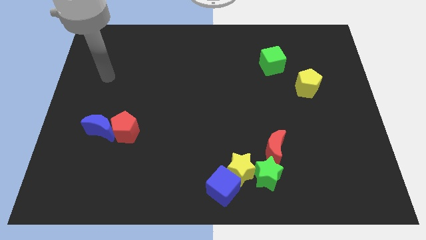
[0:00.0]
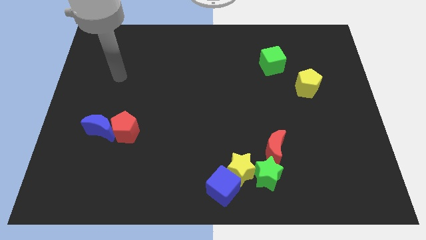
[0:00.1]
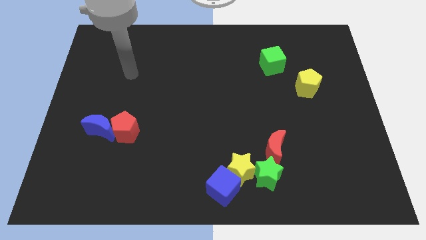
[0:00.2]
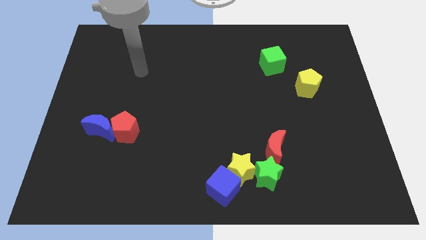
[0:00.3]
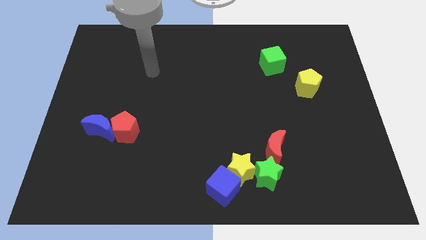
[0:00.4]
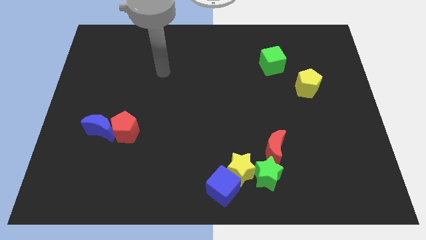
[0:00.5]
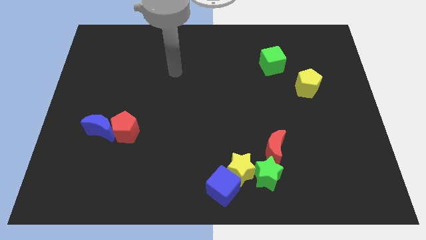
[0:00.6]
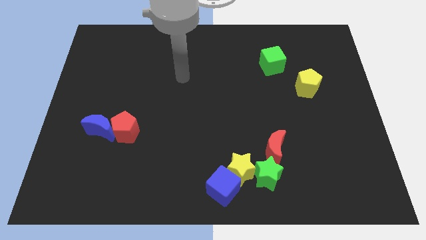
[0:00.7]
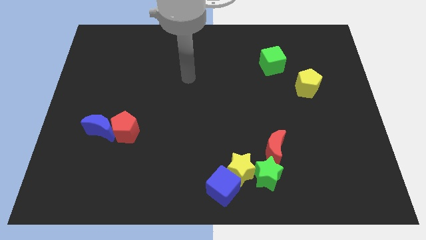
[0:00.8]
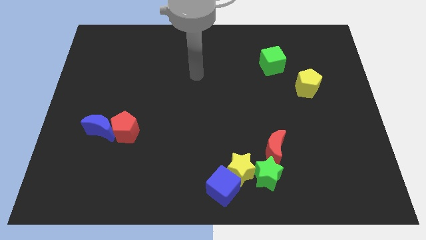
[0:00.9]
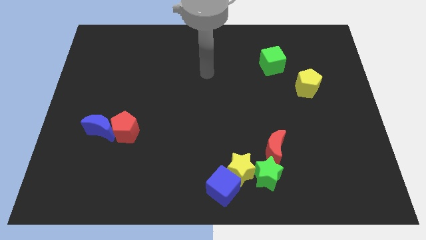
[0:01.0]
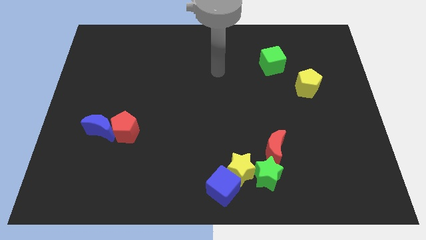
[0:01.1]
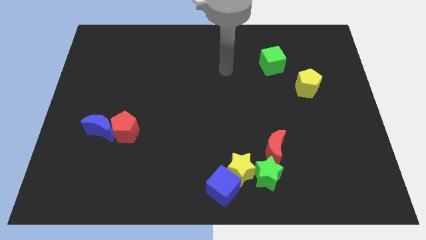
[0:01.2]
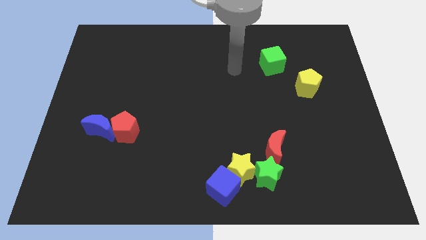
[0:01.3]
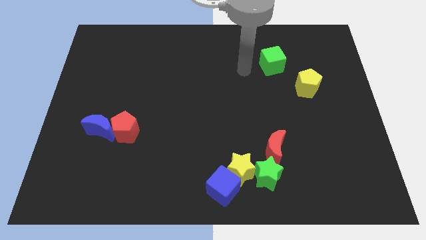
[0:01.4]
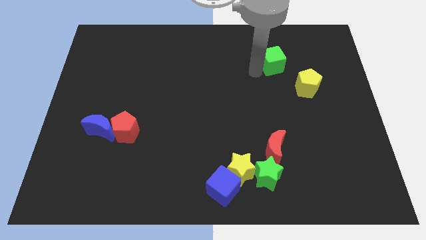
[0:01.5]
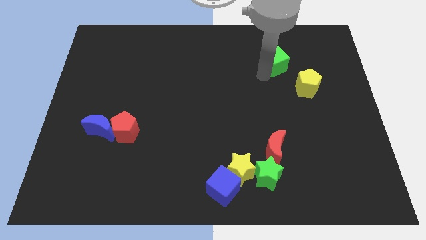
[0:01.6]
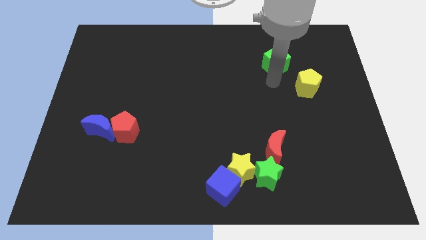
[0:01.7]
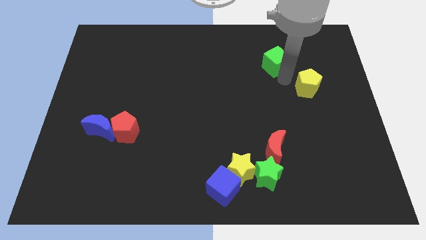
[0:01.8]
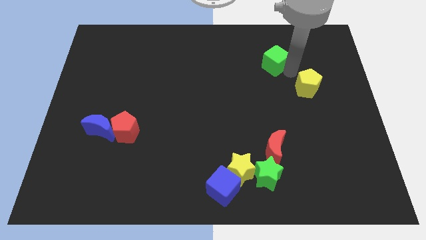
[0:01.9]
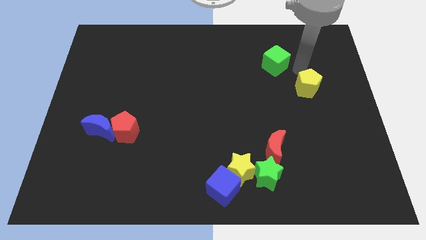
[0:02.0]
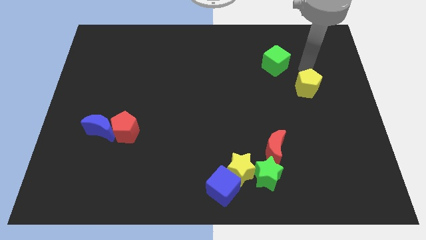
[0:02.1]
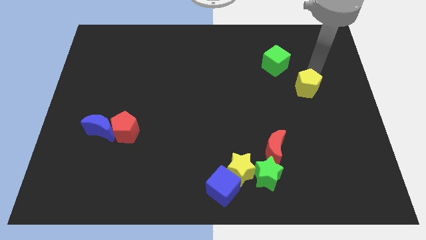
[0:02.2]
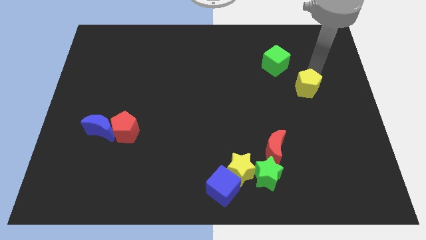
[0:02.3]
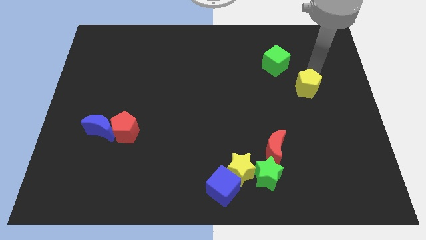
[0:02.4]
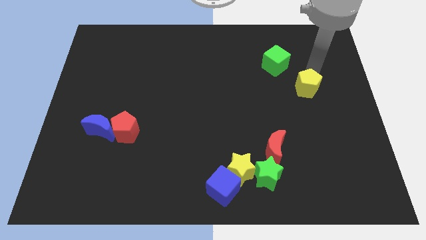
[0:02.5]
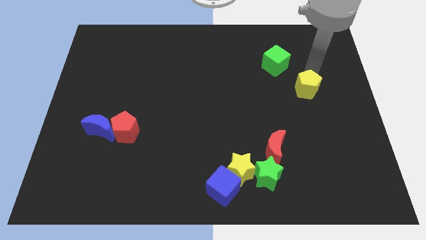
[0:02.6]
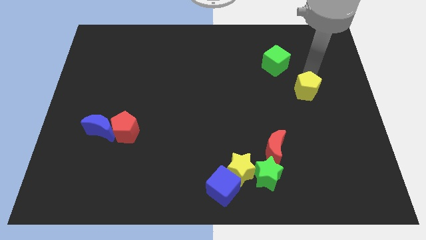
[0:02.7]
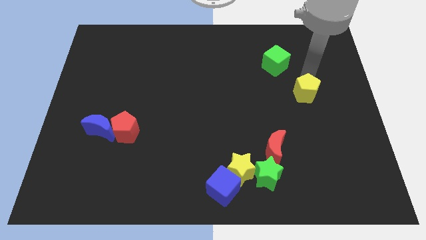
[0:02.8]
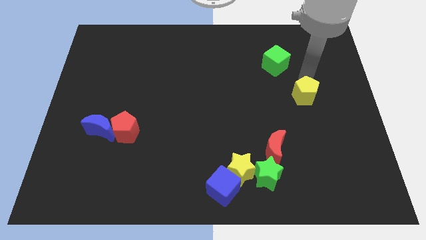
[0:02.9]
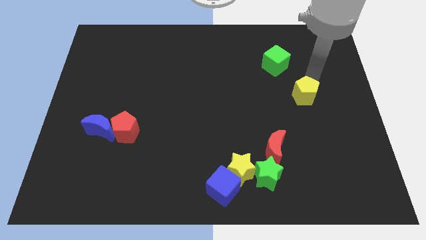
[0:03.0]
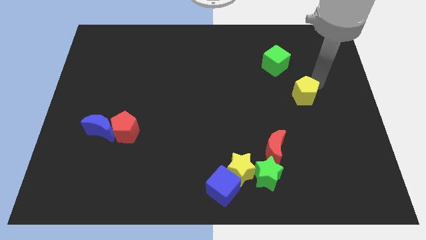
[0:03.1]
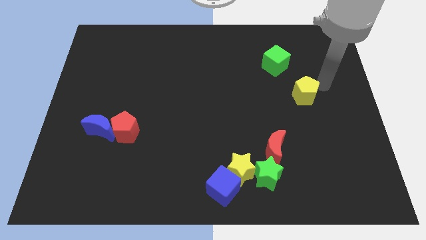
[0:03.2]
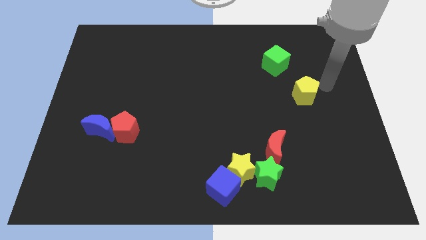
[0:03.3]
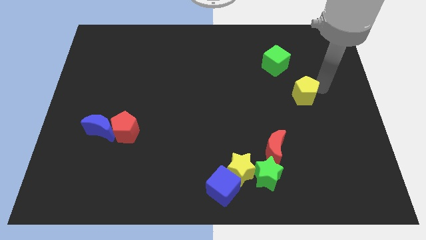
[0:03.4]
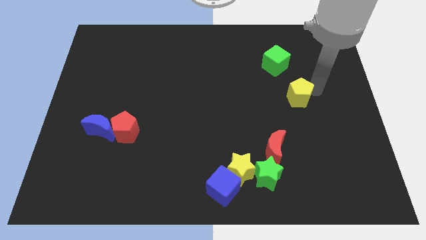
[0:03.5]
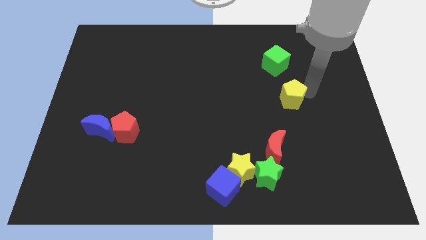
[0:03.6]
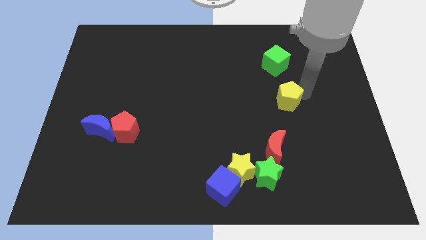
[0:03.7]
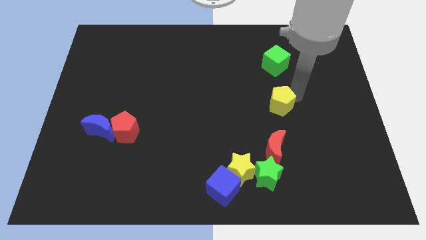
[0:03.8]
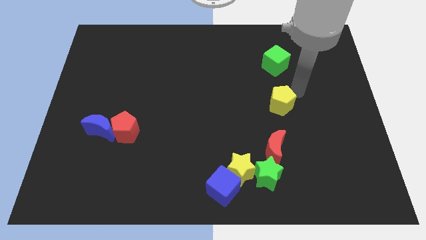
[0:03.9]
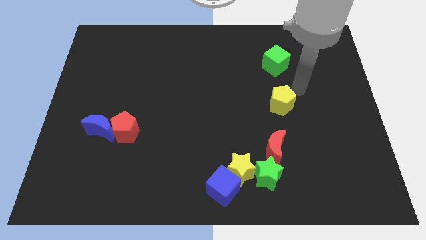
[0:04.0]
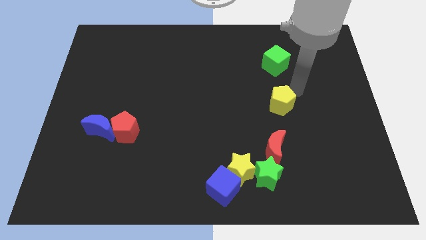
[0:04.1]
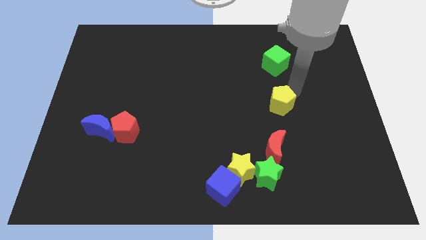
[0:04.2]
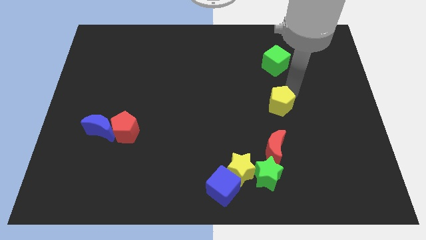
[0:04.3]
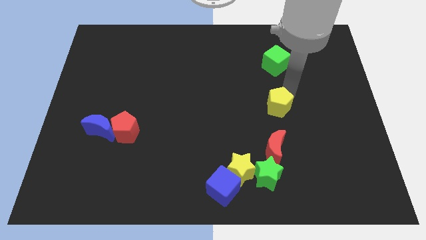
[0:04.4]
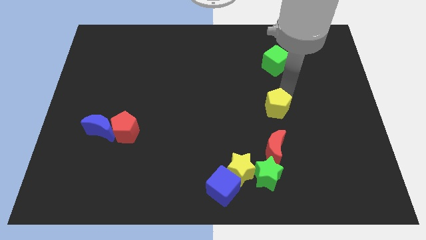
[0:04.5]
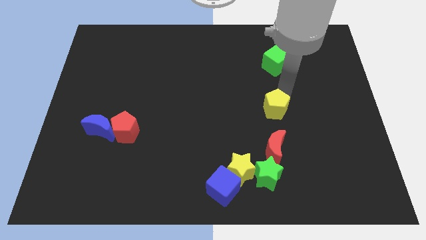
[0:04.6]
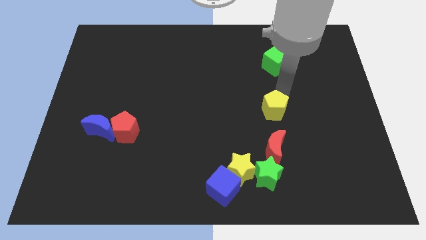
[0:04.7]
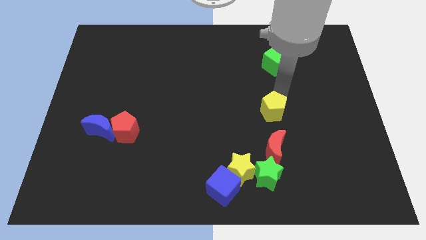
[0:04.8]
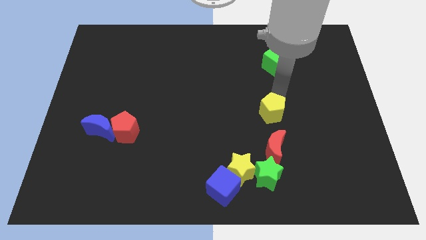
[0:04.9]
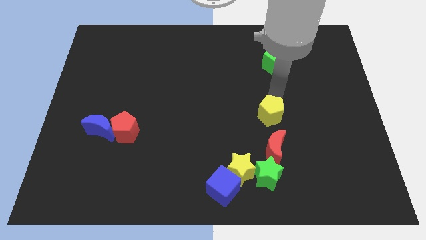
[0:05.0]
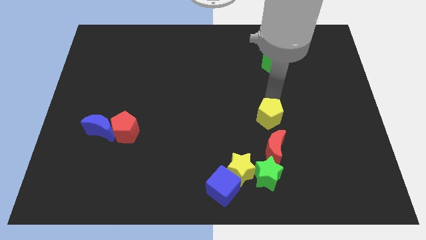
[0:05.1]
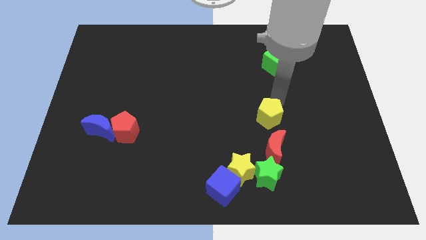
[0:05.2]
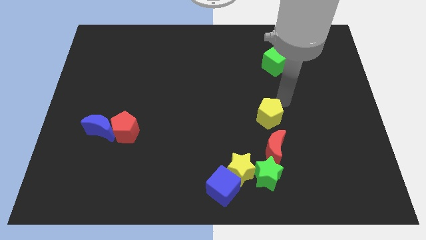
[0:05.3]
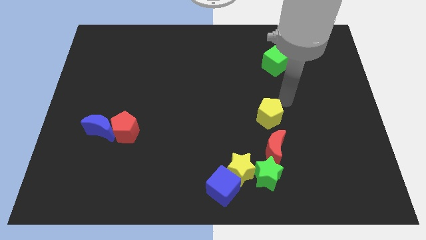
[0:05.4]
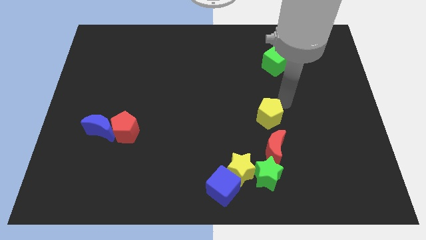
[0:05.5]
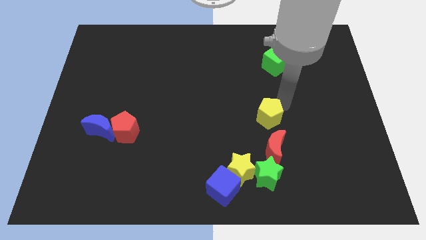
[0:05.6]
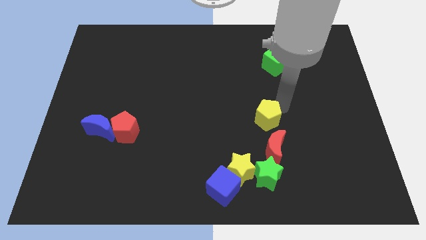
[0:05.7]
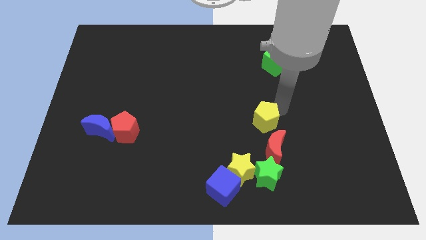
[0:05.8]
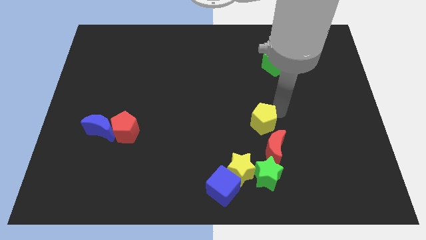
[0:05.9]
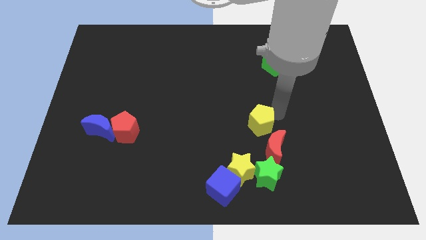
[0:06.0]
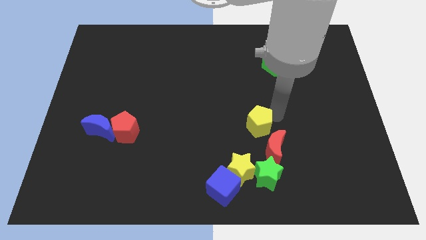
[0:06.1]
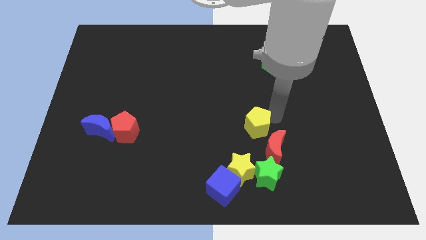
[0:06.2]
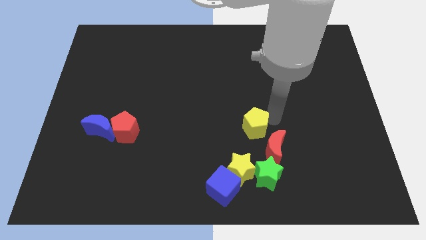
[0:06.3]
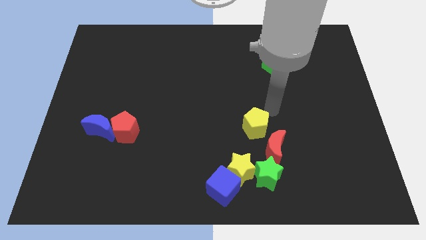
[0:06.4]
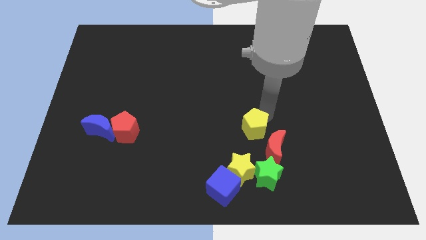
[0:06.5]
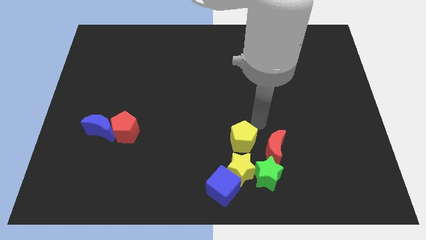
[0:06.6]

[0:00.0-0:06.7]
slide the yellow pentagon down and to the left

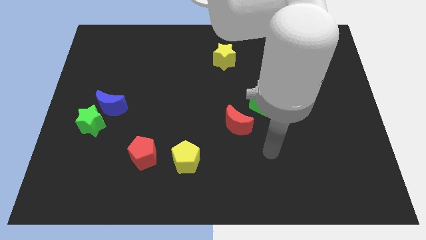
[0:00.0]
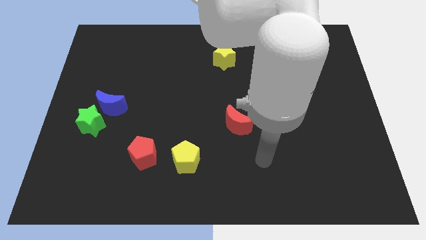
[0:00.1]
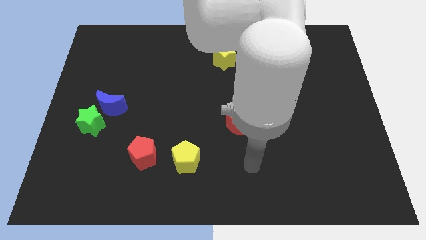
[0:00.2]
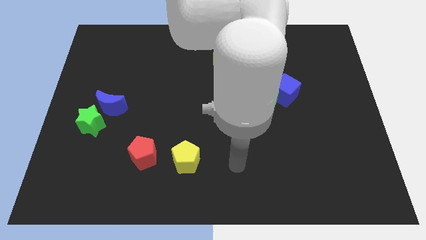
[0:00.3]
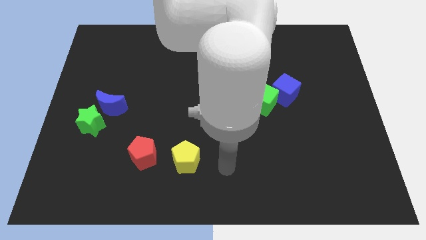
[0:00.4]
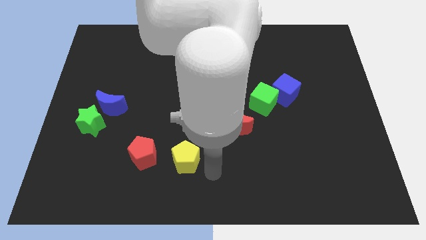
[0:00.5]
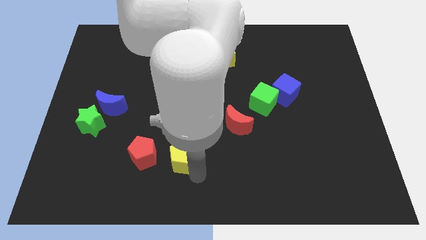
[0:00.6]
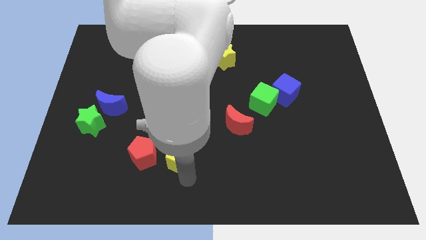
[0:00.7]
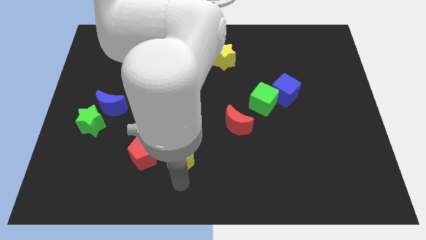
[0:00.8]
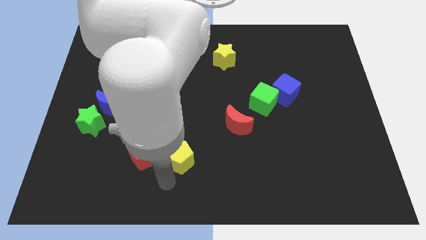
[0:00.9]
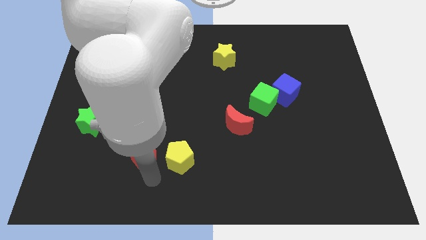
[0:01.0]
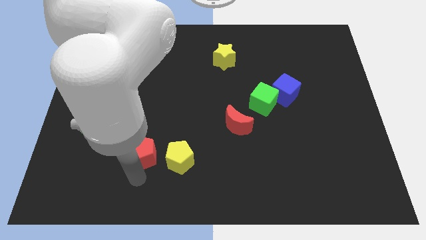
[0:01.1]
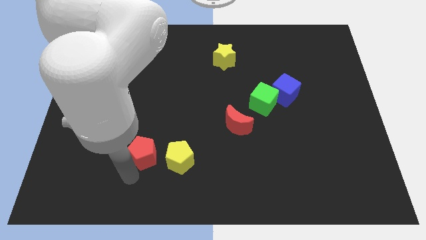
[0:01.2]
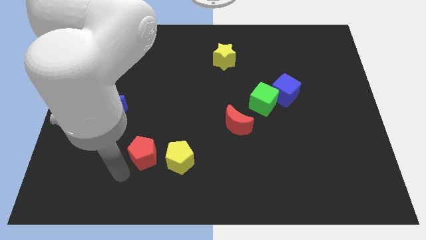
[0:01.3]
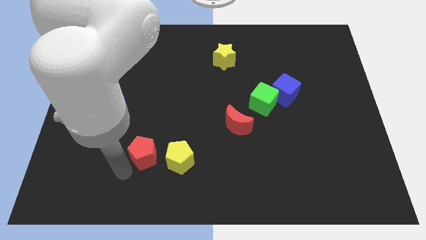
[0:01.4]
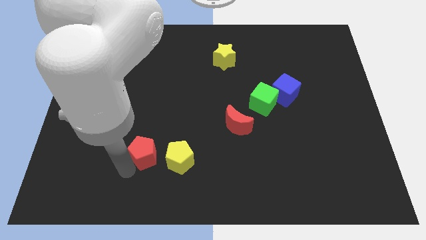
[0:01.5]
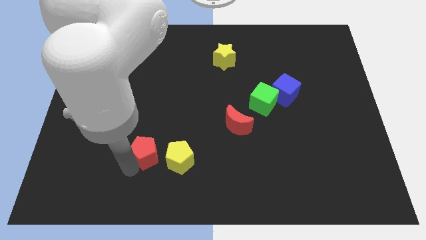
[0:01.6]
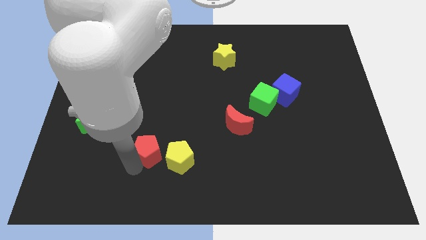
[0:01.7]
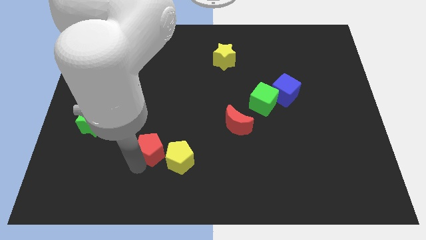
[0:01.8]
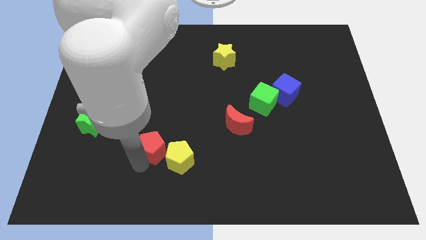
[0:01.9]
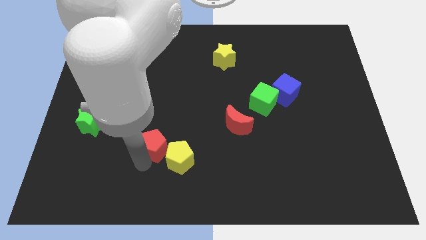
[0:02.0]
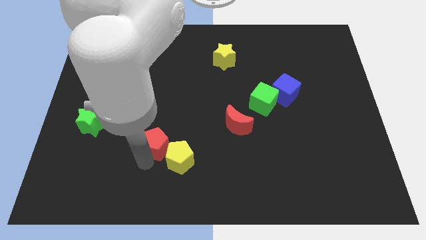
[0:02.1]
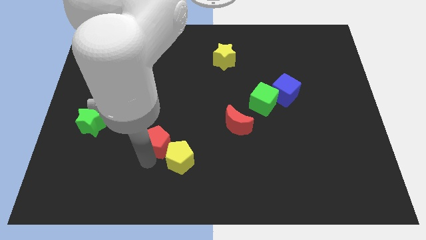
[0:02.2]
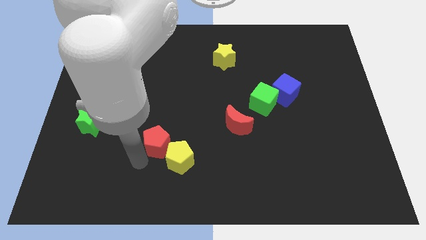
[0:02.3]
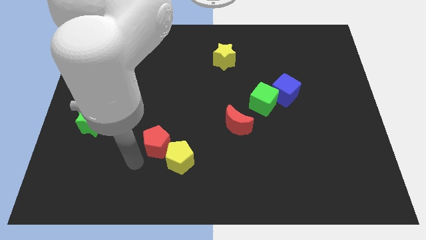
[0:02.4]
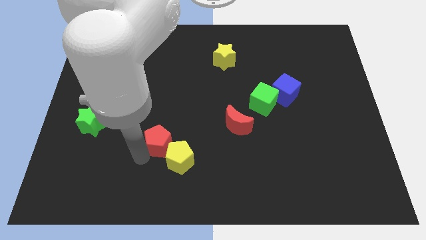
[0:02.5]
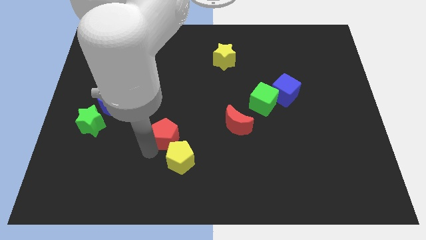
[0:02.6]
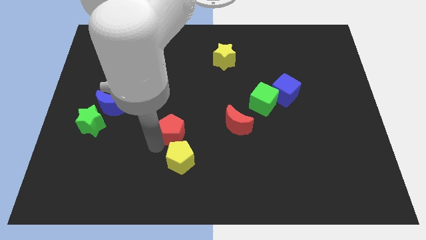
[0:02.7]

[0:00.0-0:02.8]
slide the red pentagon upwards and right a bit
